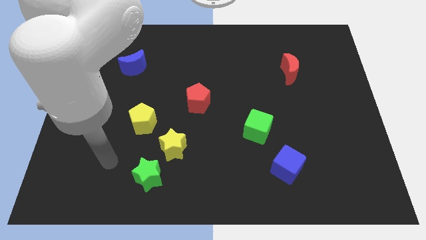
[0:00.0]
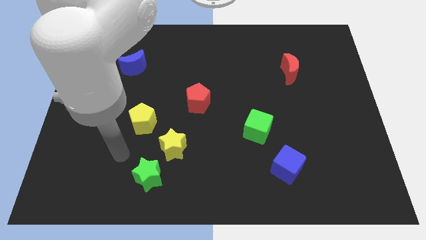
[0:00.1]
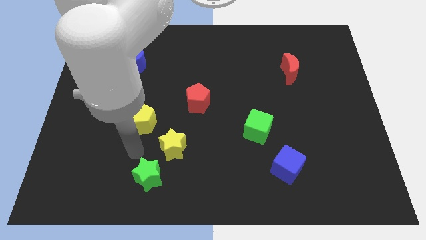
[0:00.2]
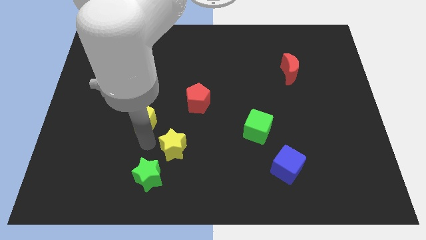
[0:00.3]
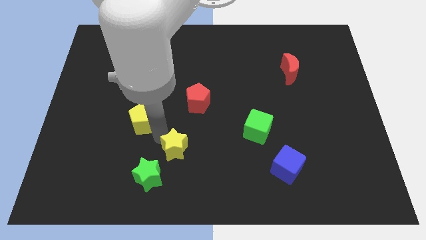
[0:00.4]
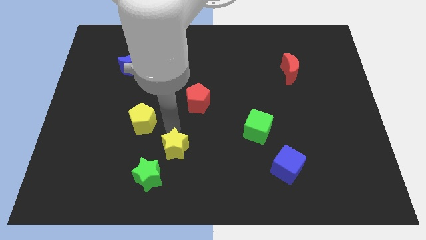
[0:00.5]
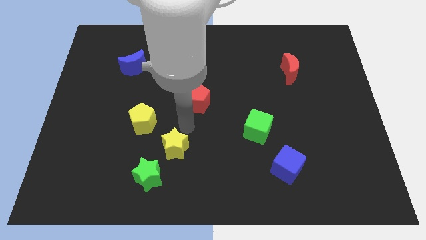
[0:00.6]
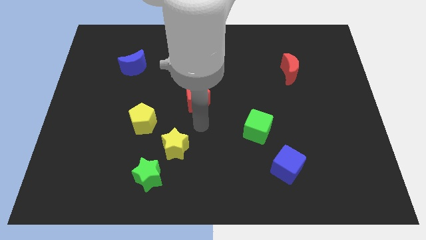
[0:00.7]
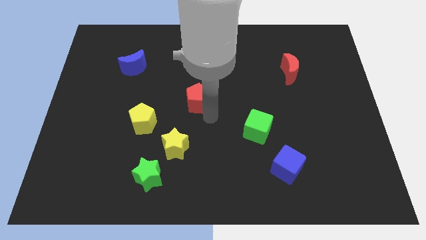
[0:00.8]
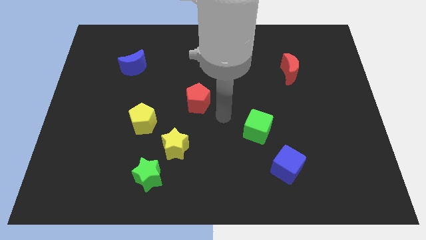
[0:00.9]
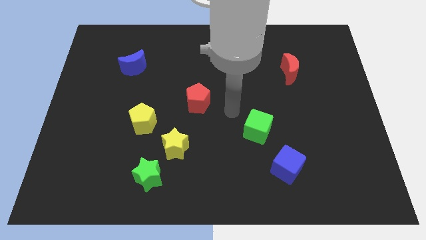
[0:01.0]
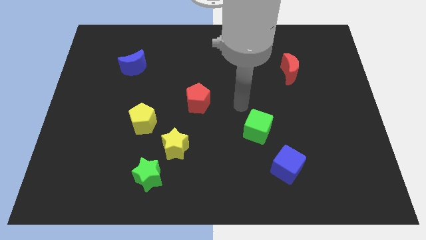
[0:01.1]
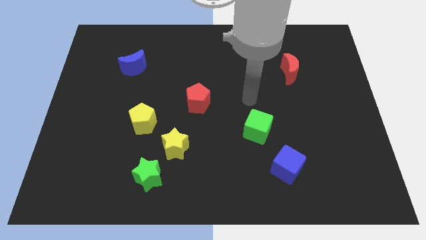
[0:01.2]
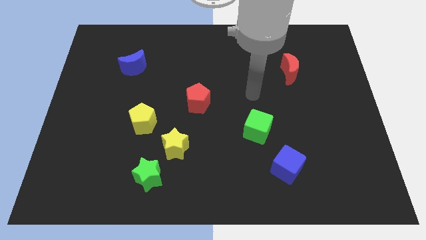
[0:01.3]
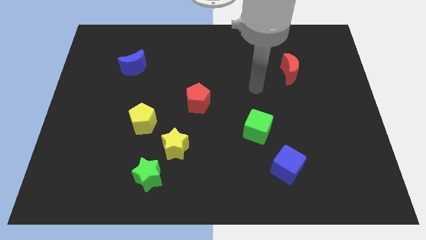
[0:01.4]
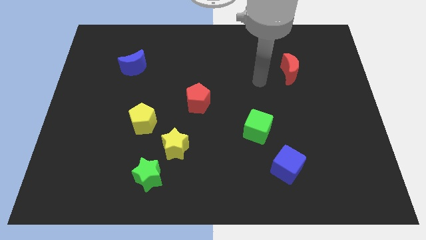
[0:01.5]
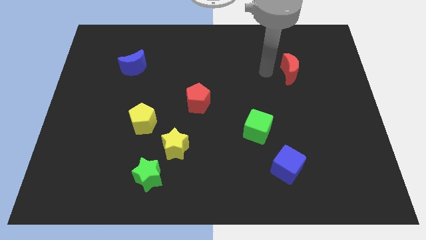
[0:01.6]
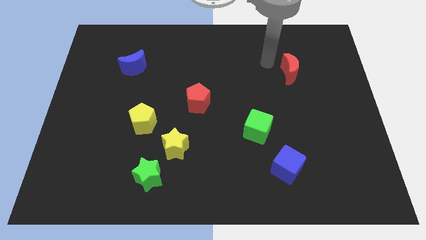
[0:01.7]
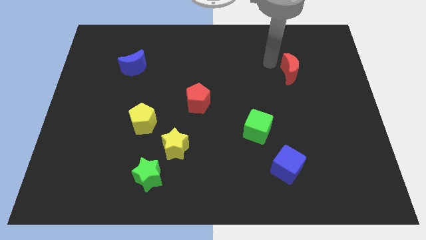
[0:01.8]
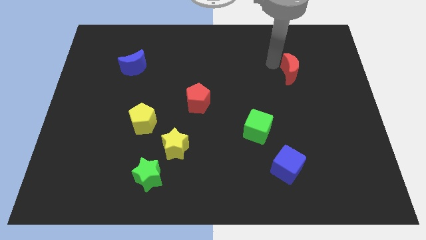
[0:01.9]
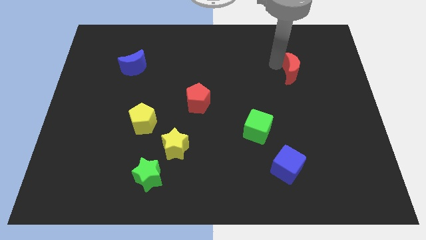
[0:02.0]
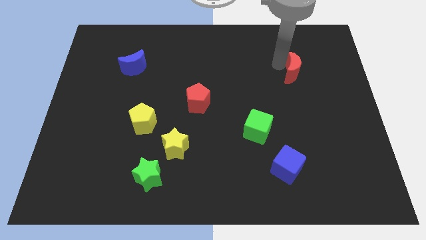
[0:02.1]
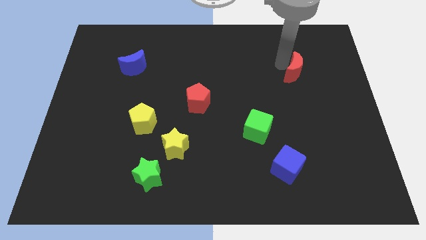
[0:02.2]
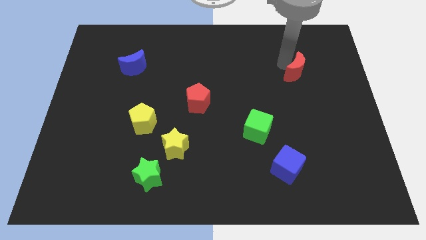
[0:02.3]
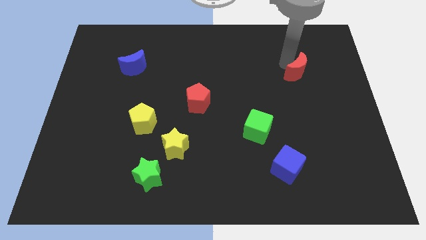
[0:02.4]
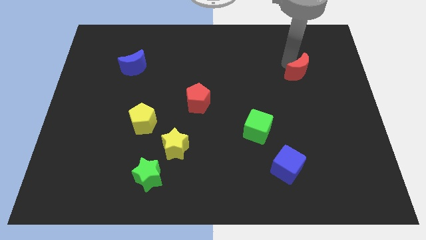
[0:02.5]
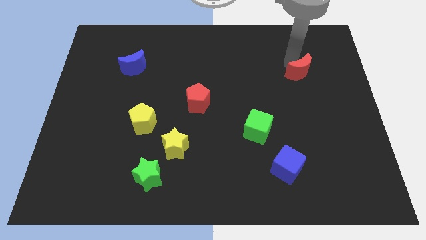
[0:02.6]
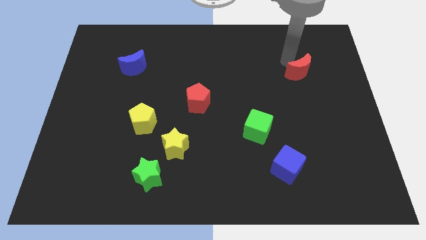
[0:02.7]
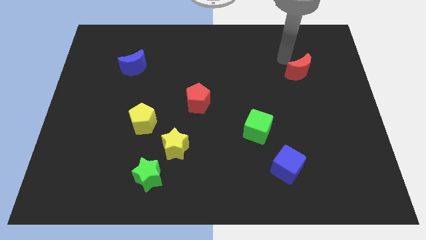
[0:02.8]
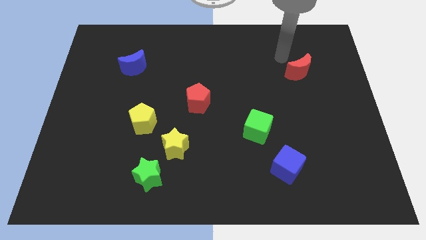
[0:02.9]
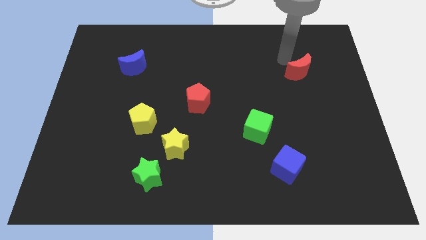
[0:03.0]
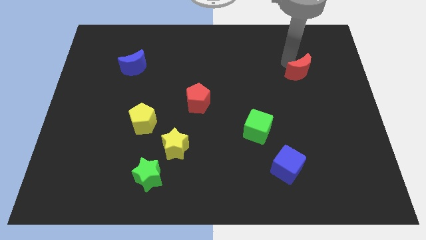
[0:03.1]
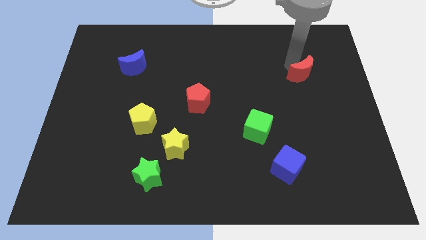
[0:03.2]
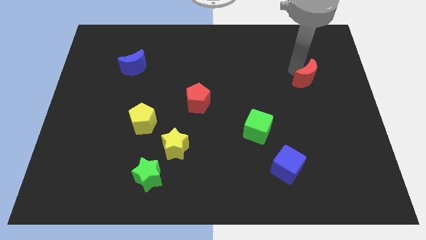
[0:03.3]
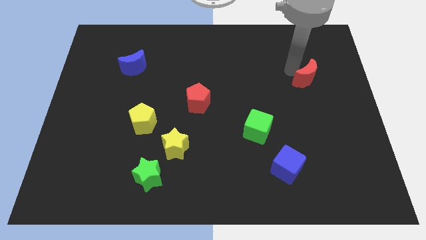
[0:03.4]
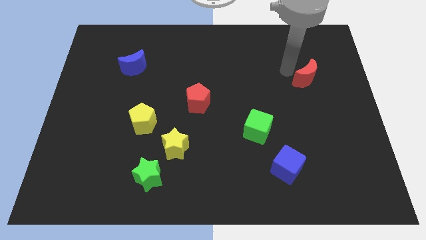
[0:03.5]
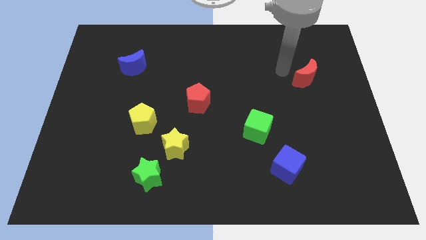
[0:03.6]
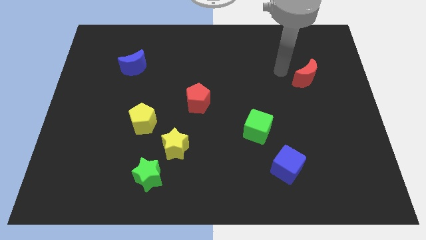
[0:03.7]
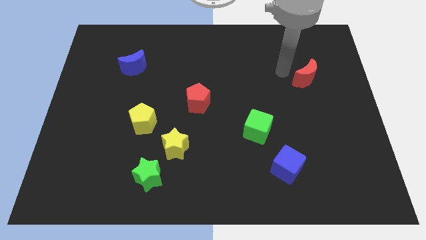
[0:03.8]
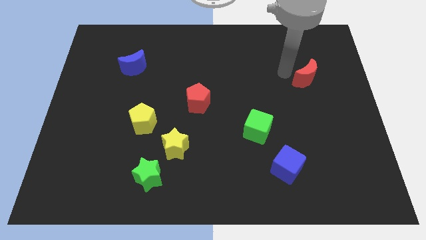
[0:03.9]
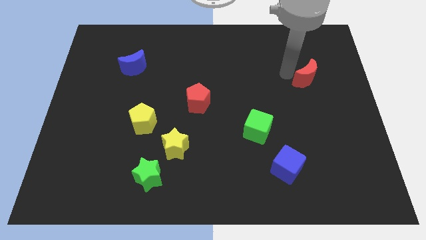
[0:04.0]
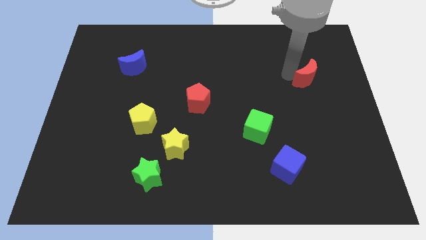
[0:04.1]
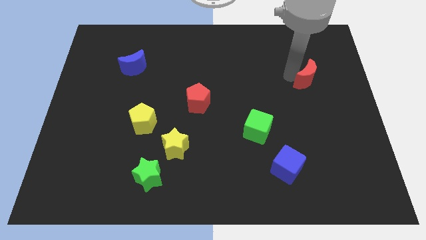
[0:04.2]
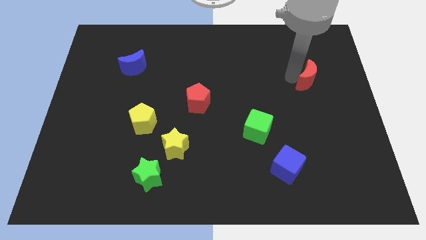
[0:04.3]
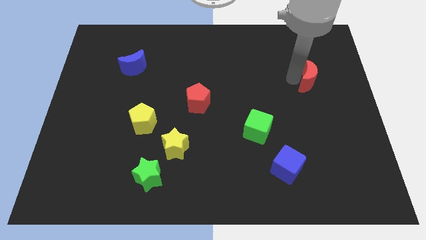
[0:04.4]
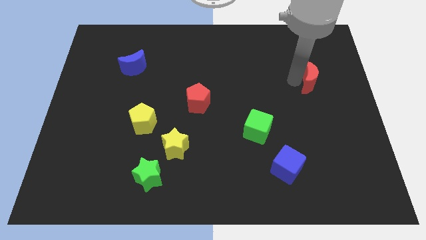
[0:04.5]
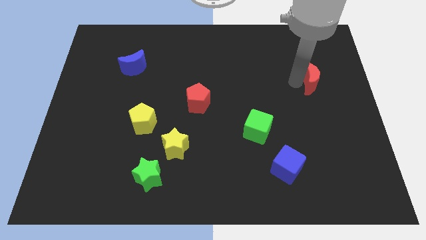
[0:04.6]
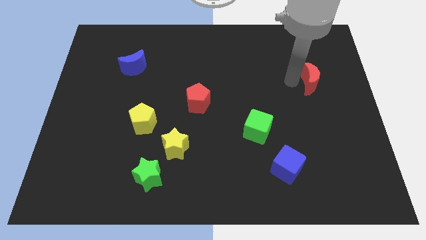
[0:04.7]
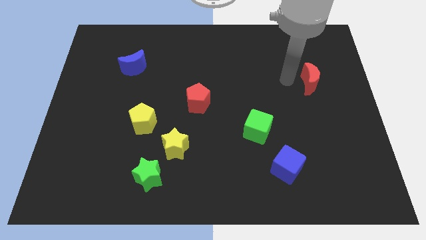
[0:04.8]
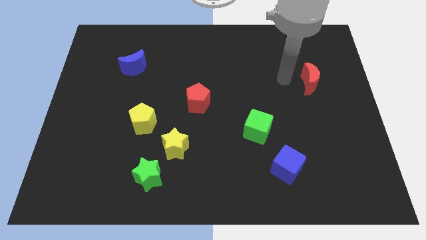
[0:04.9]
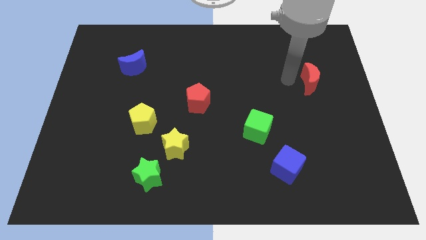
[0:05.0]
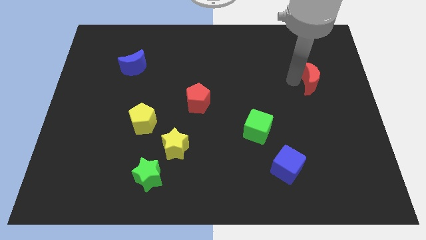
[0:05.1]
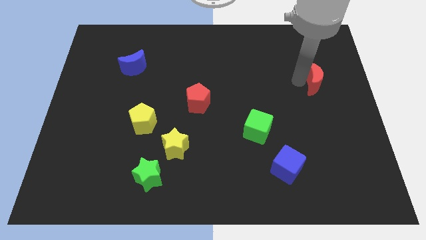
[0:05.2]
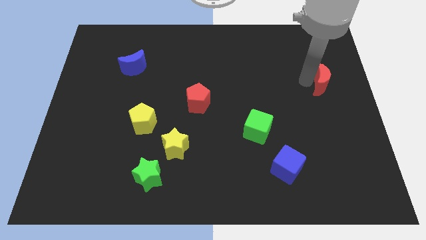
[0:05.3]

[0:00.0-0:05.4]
move the red moon to the right side

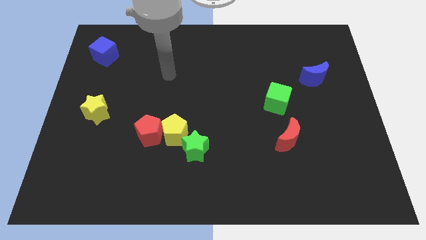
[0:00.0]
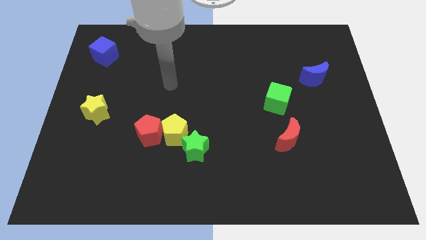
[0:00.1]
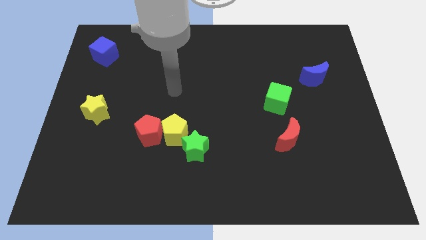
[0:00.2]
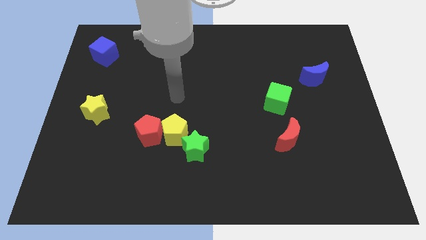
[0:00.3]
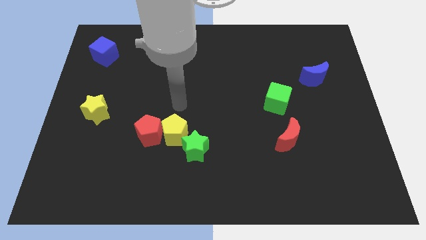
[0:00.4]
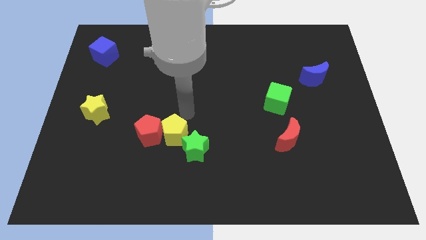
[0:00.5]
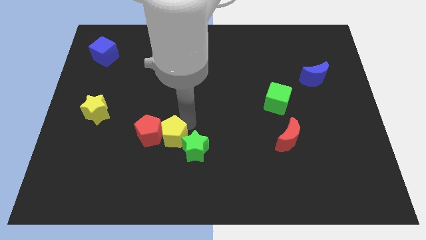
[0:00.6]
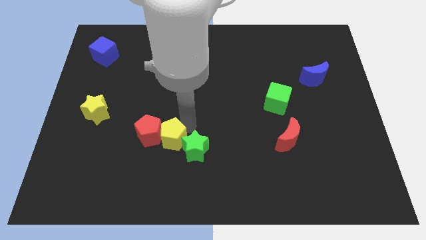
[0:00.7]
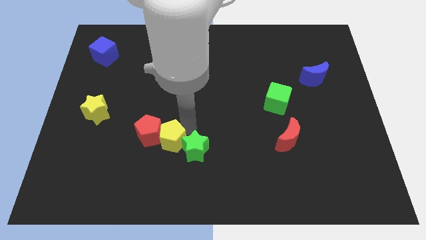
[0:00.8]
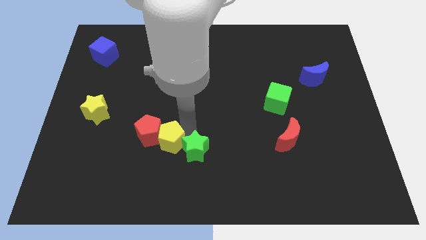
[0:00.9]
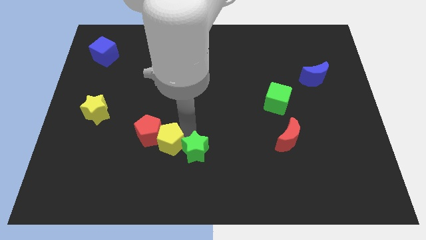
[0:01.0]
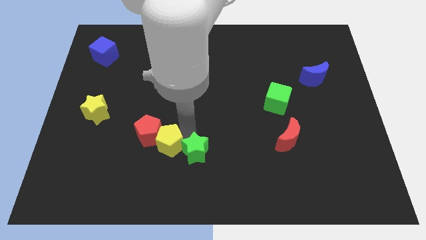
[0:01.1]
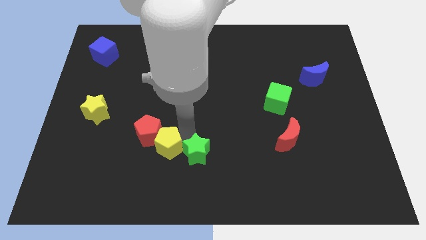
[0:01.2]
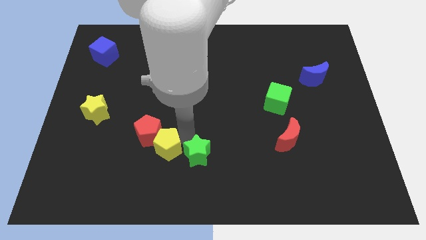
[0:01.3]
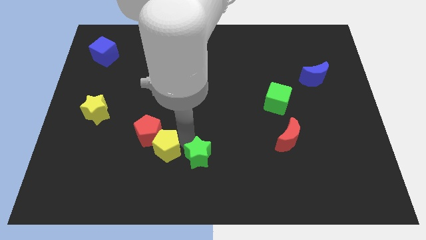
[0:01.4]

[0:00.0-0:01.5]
move the green star to the bottom side

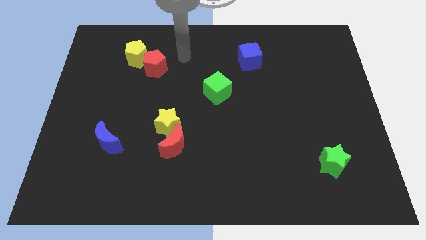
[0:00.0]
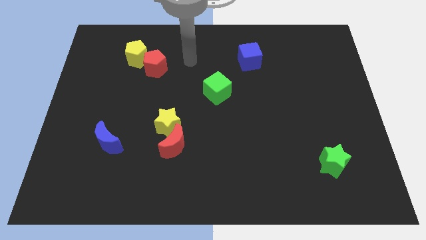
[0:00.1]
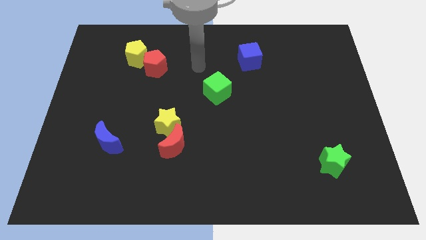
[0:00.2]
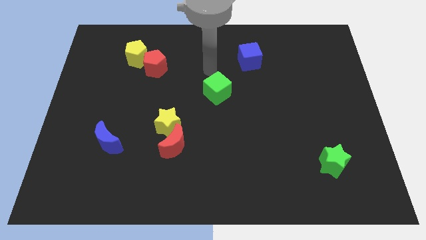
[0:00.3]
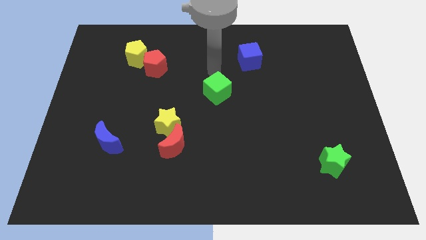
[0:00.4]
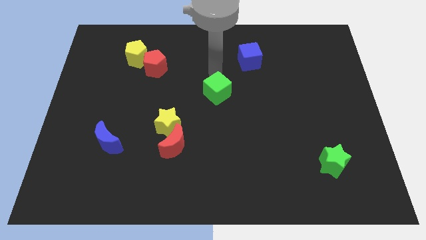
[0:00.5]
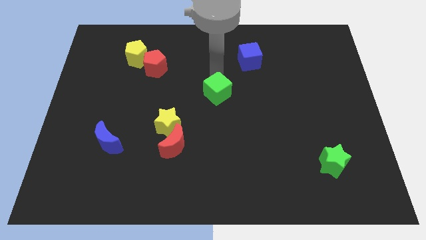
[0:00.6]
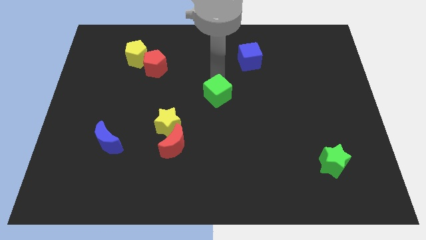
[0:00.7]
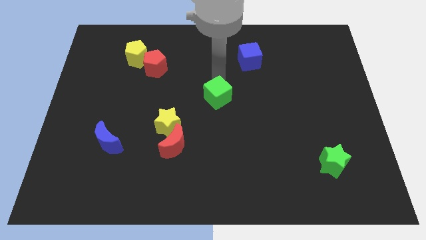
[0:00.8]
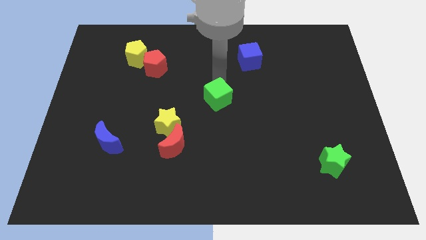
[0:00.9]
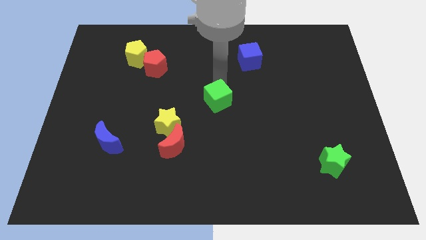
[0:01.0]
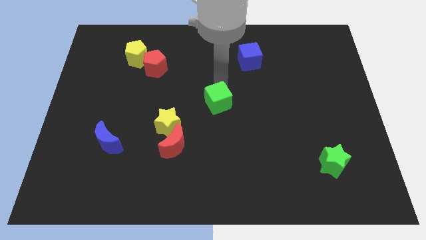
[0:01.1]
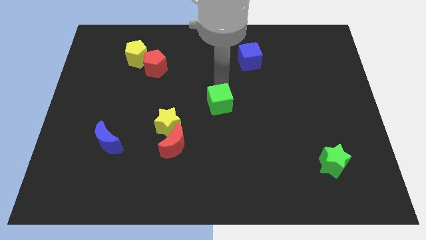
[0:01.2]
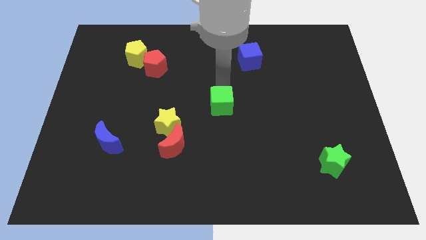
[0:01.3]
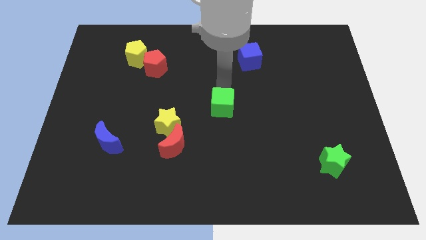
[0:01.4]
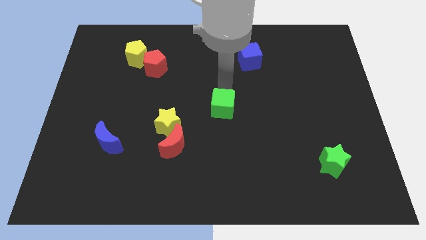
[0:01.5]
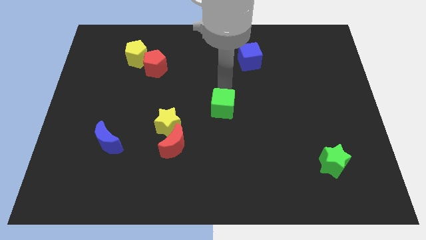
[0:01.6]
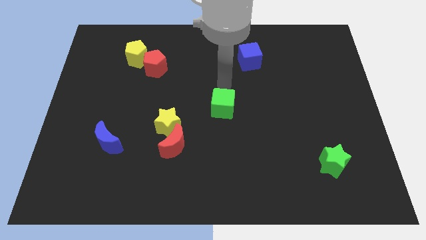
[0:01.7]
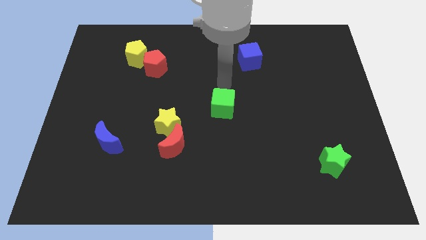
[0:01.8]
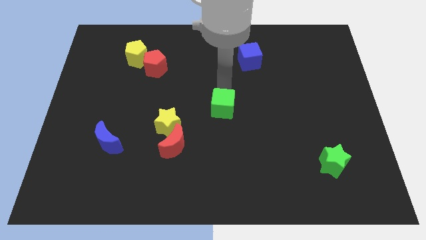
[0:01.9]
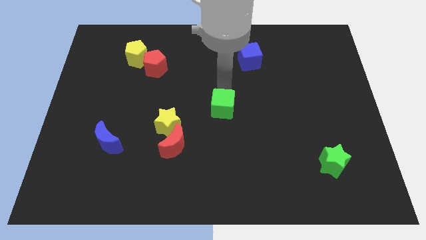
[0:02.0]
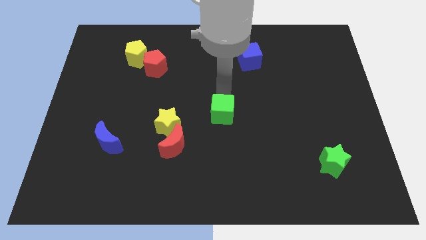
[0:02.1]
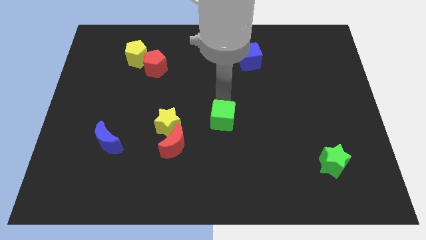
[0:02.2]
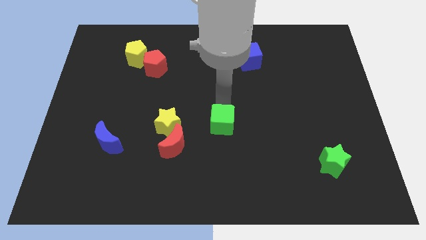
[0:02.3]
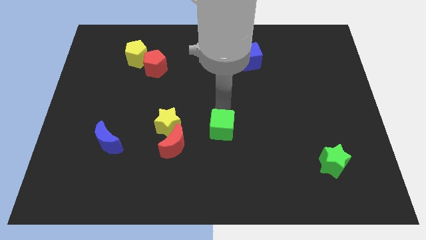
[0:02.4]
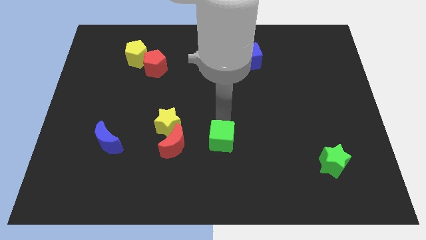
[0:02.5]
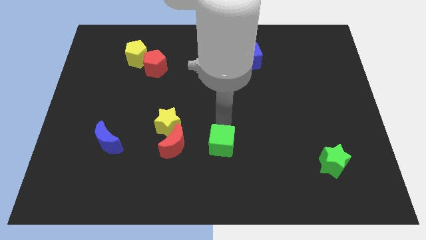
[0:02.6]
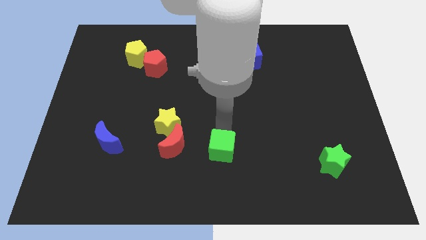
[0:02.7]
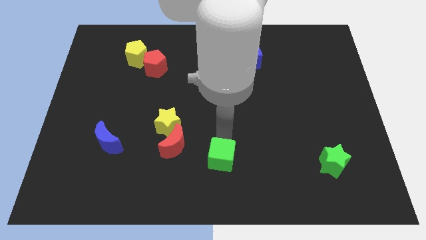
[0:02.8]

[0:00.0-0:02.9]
put the green cube to the bottom
